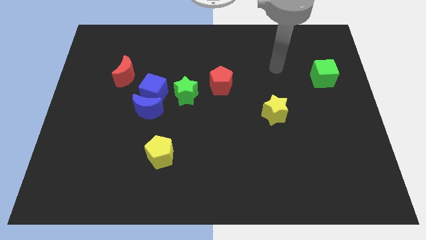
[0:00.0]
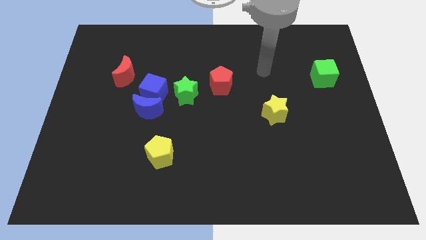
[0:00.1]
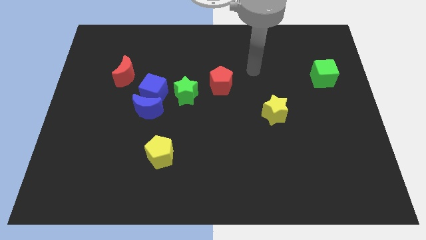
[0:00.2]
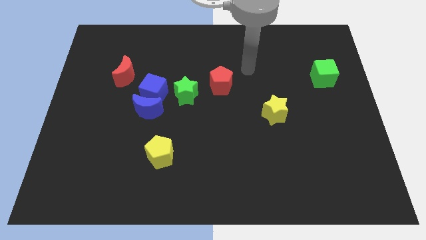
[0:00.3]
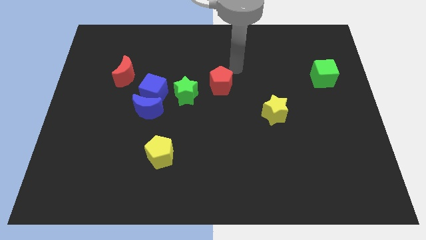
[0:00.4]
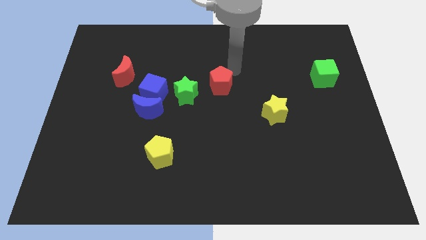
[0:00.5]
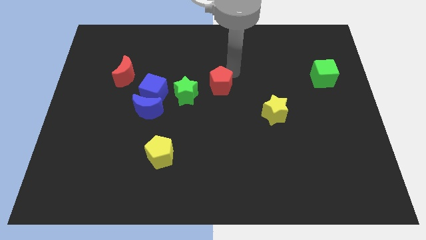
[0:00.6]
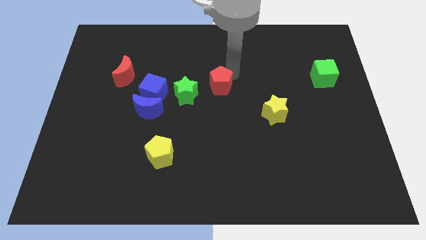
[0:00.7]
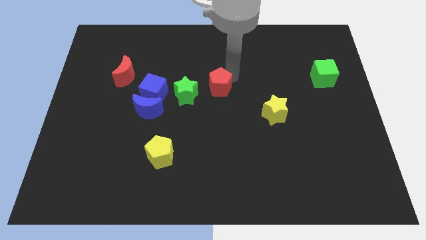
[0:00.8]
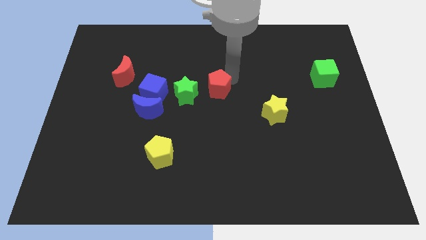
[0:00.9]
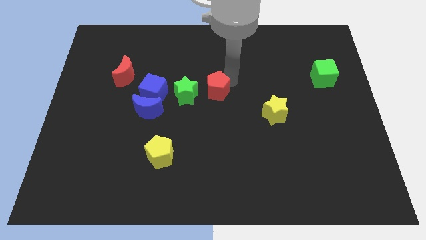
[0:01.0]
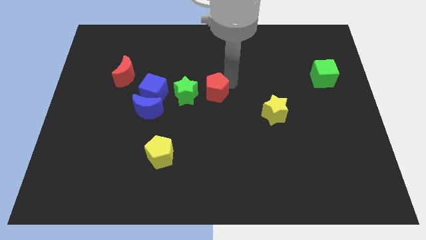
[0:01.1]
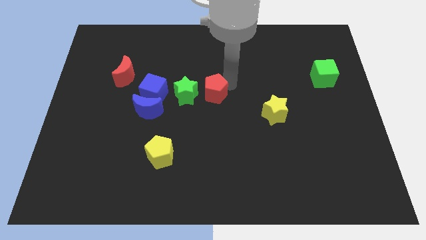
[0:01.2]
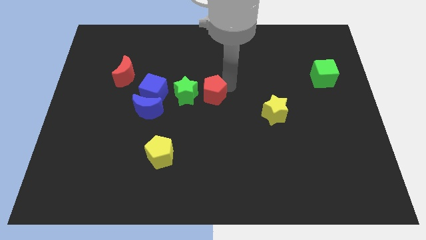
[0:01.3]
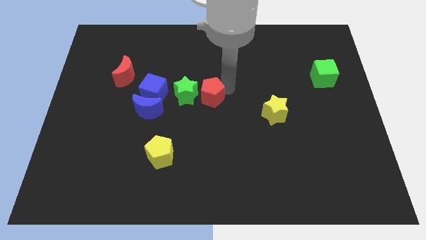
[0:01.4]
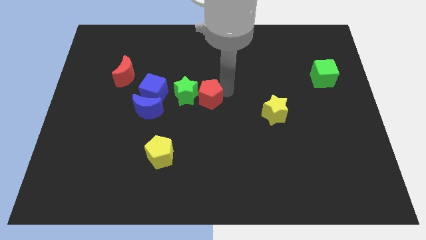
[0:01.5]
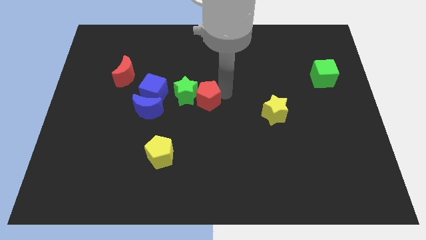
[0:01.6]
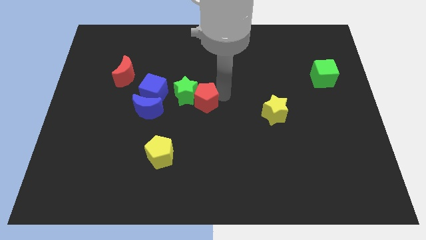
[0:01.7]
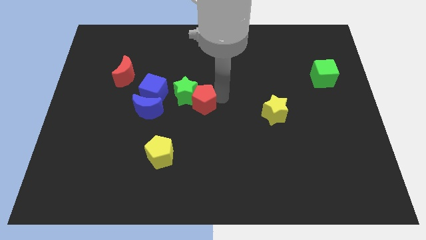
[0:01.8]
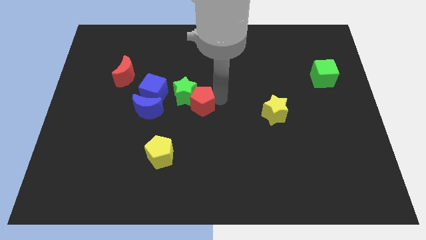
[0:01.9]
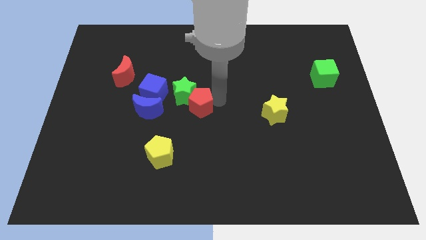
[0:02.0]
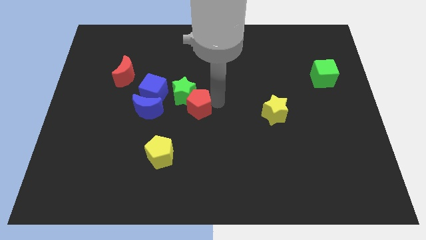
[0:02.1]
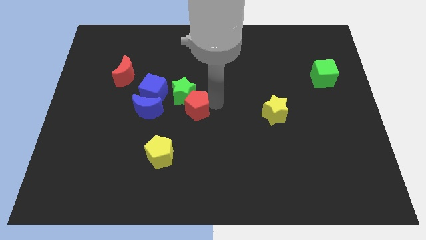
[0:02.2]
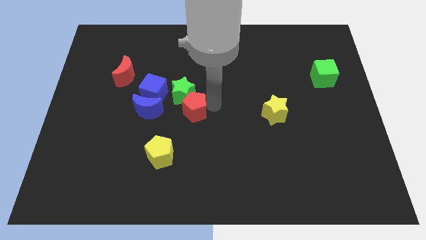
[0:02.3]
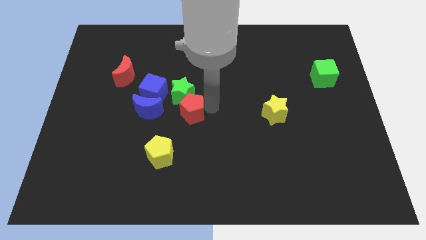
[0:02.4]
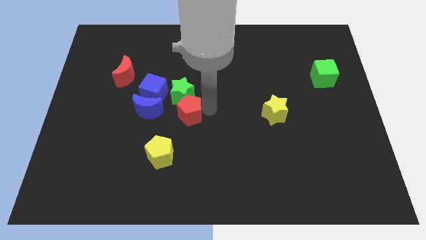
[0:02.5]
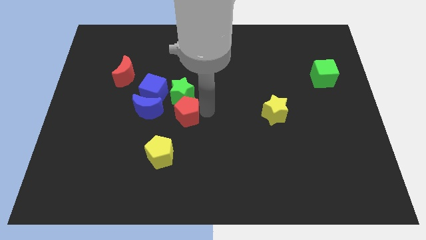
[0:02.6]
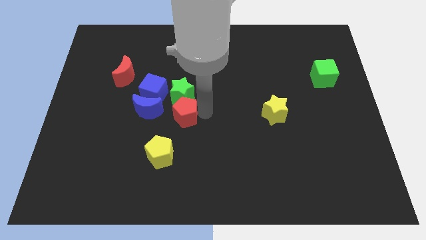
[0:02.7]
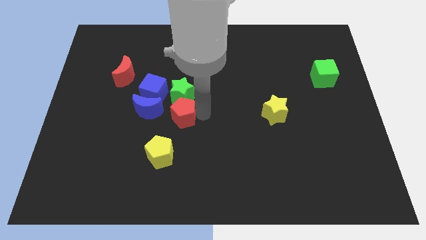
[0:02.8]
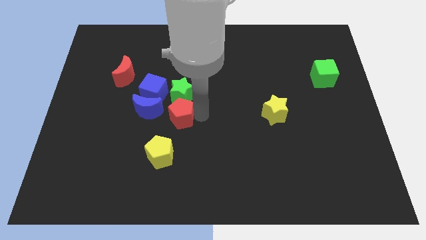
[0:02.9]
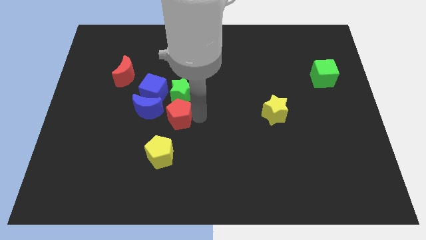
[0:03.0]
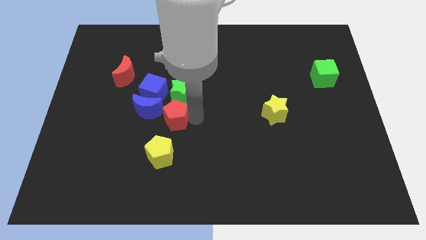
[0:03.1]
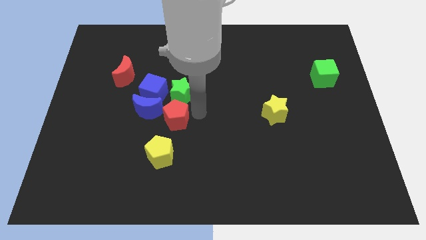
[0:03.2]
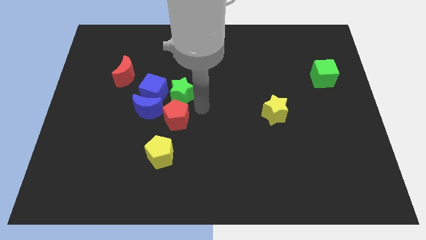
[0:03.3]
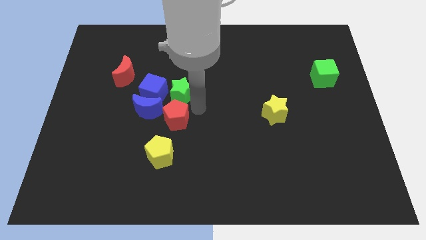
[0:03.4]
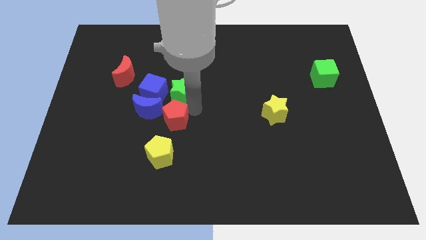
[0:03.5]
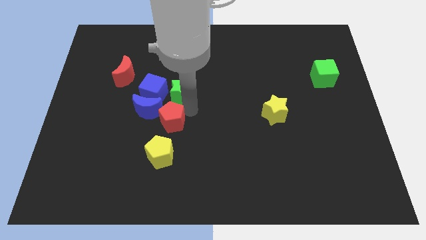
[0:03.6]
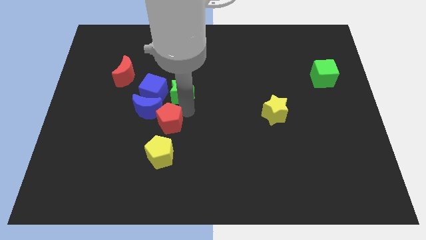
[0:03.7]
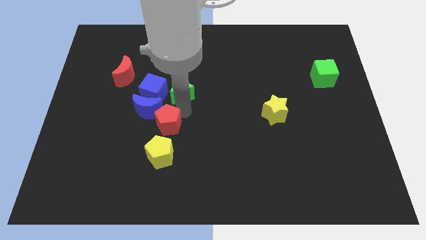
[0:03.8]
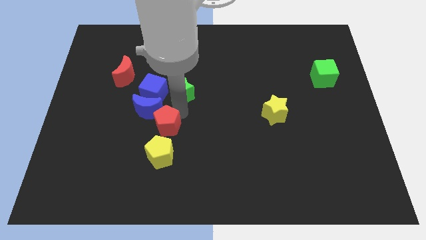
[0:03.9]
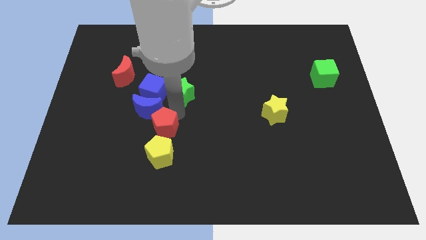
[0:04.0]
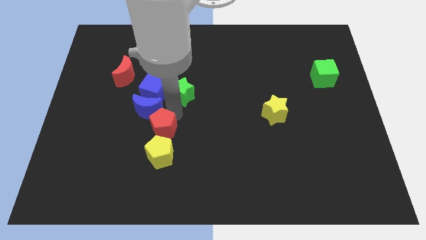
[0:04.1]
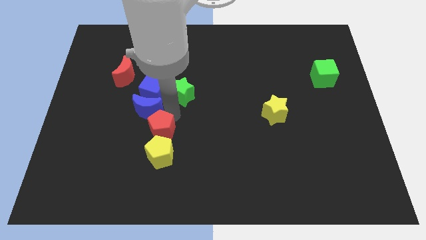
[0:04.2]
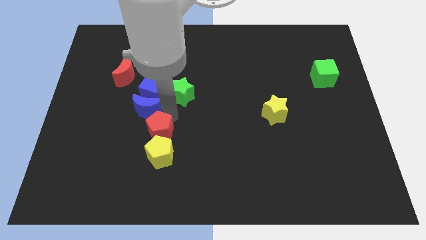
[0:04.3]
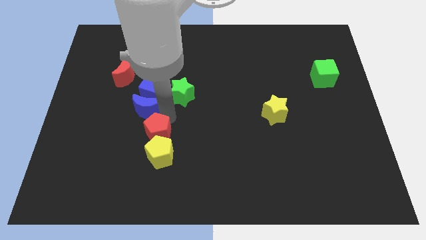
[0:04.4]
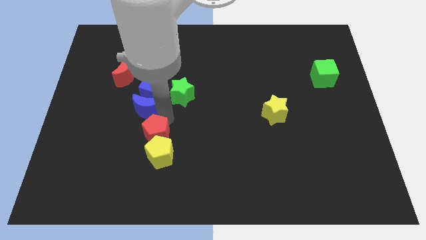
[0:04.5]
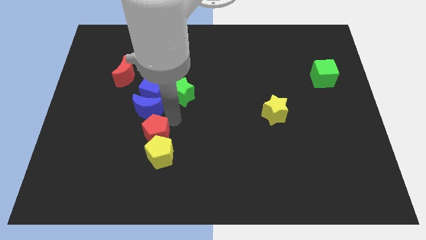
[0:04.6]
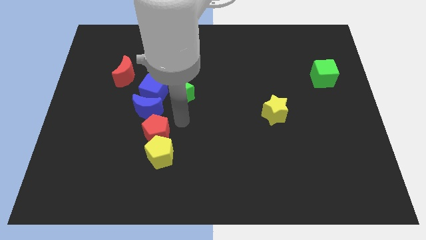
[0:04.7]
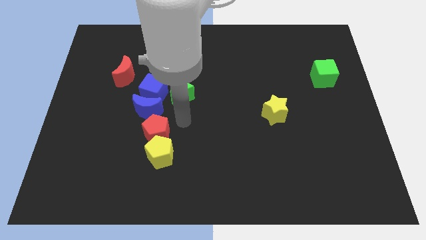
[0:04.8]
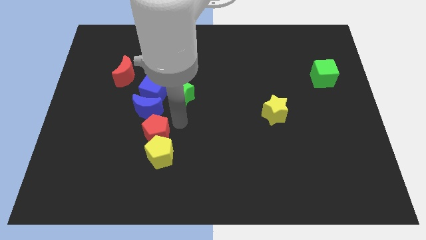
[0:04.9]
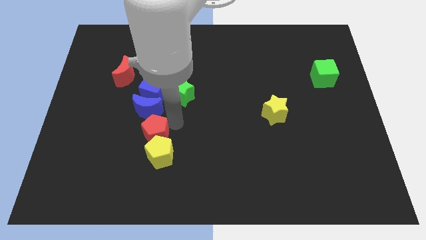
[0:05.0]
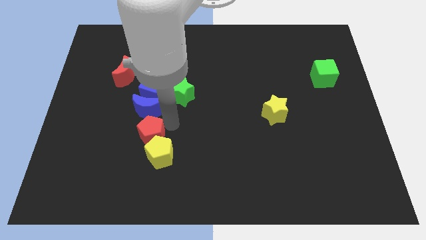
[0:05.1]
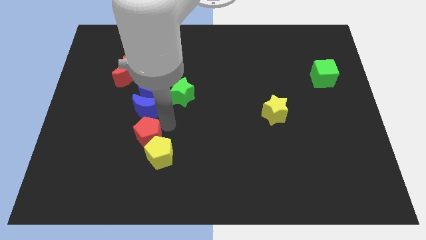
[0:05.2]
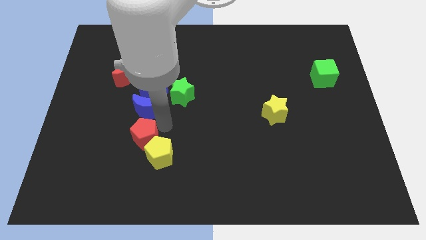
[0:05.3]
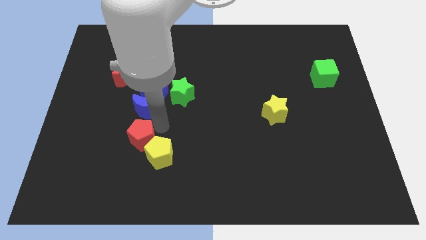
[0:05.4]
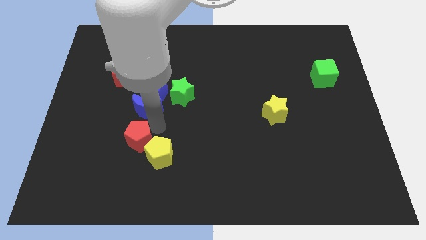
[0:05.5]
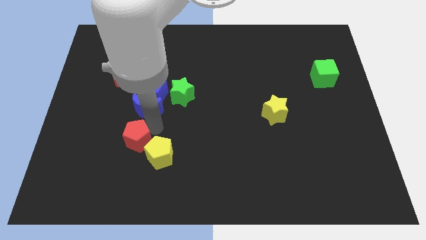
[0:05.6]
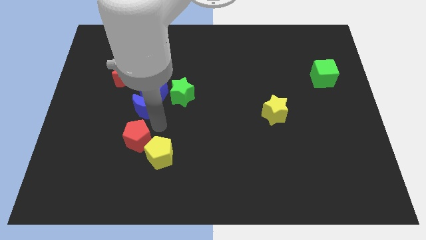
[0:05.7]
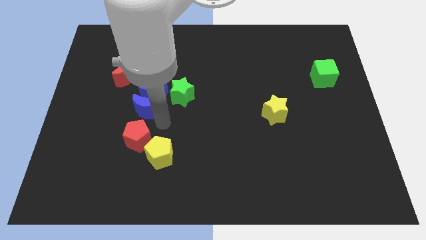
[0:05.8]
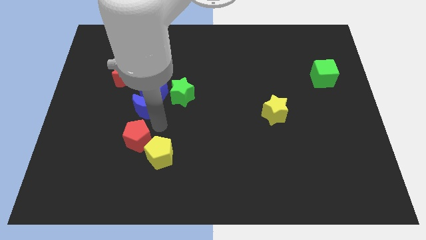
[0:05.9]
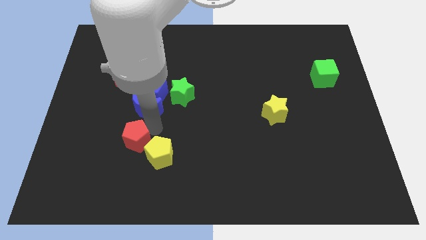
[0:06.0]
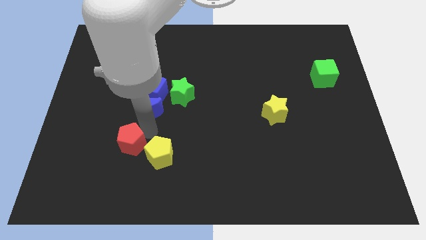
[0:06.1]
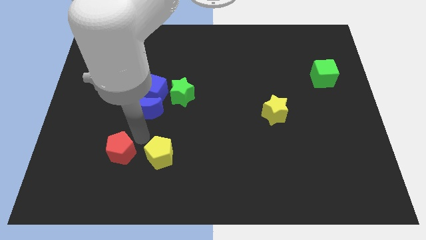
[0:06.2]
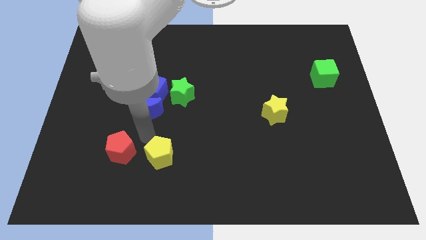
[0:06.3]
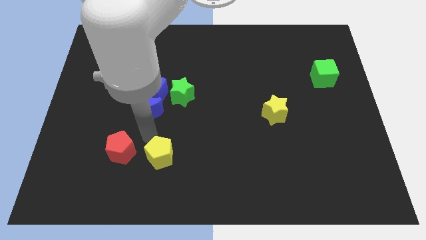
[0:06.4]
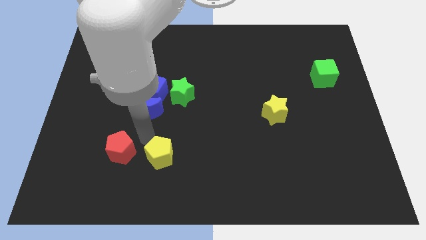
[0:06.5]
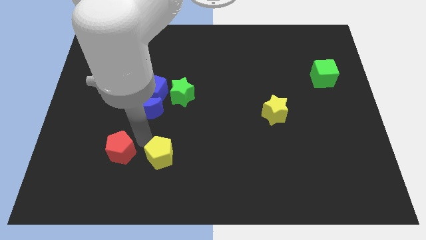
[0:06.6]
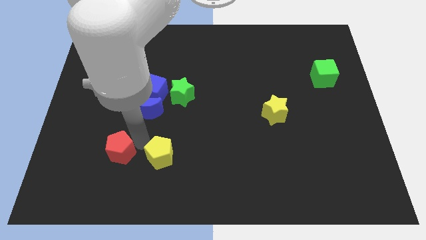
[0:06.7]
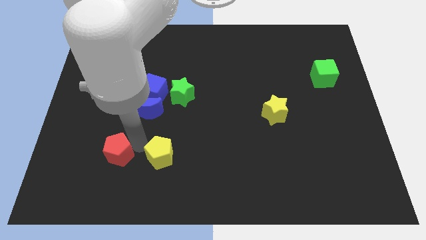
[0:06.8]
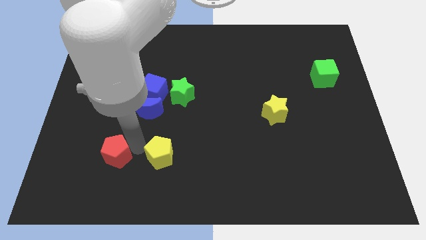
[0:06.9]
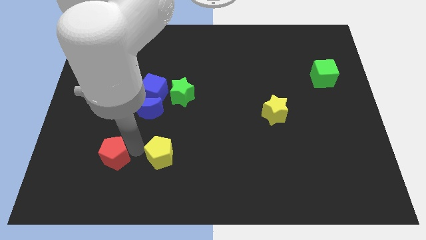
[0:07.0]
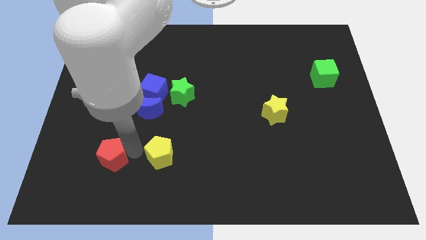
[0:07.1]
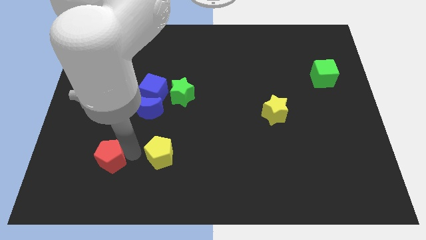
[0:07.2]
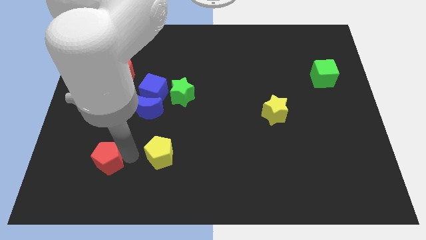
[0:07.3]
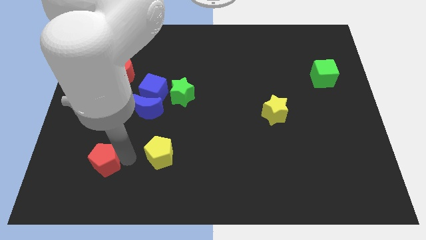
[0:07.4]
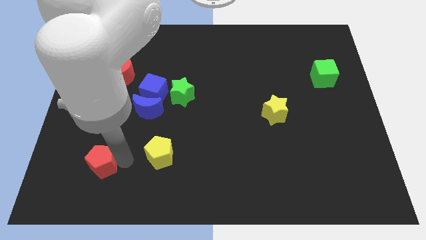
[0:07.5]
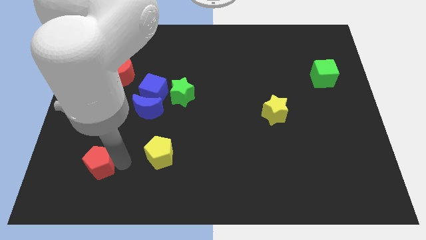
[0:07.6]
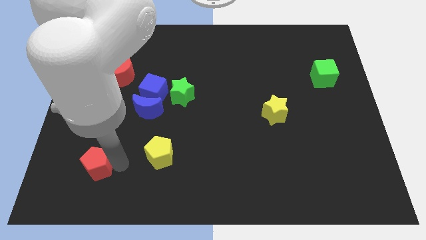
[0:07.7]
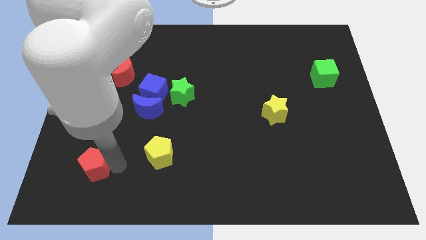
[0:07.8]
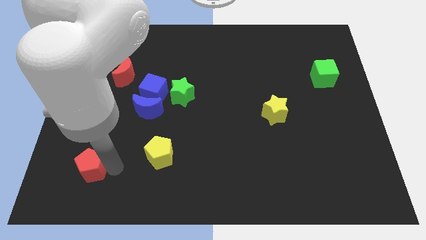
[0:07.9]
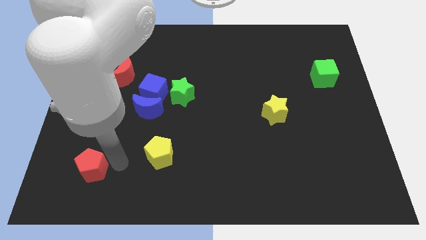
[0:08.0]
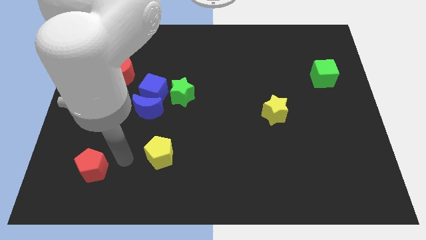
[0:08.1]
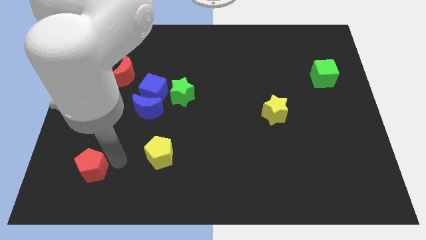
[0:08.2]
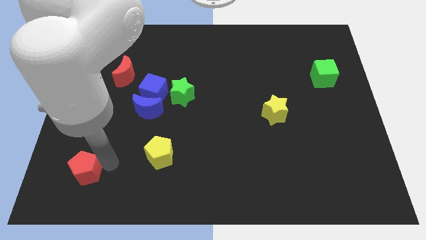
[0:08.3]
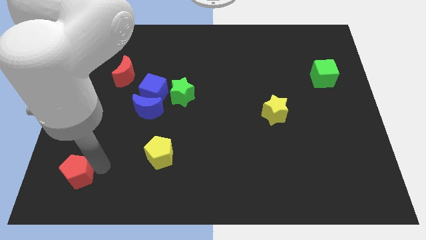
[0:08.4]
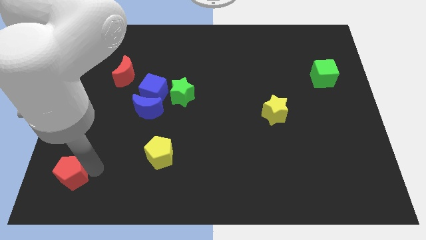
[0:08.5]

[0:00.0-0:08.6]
slide the red pentagon to the lower left corner
